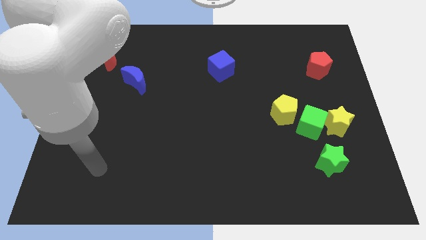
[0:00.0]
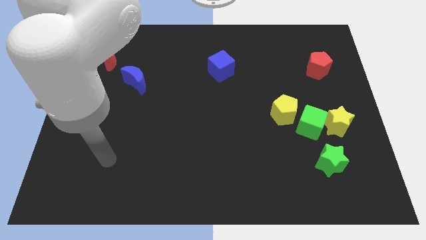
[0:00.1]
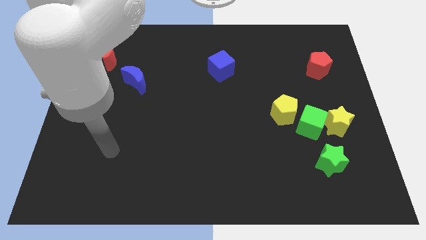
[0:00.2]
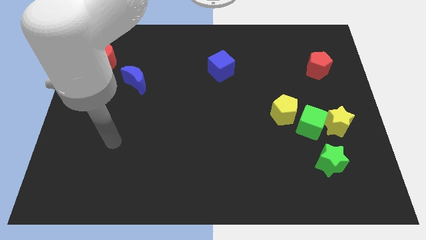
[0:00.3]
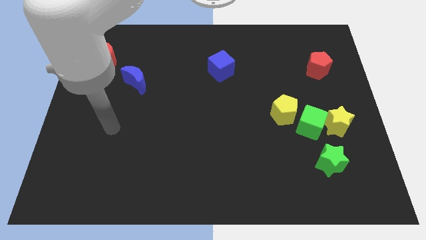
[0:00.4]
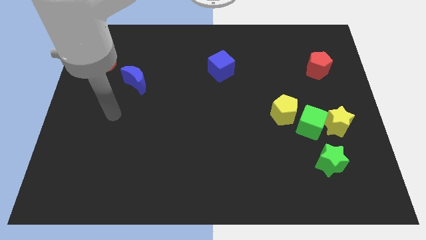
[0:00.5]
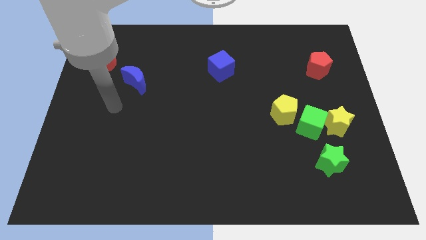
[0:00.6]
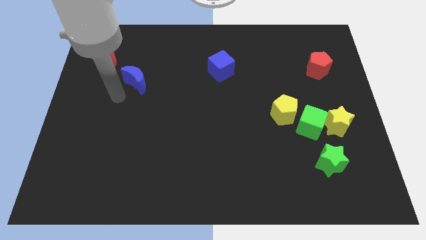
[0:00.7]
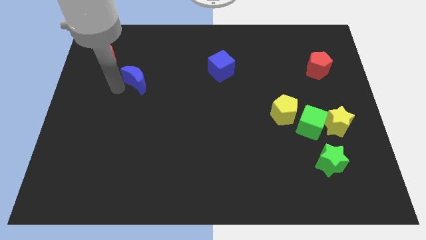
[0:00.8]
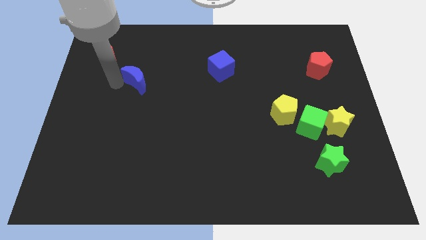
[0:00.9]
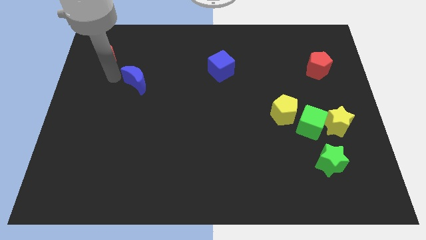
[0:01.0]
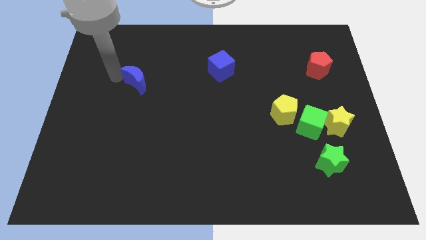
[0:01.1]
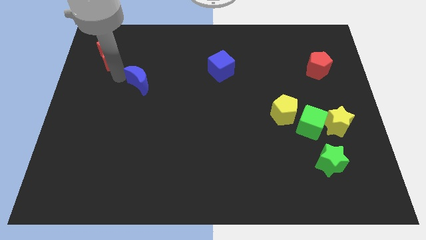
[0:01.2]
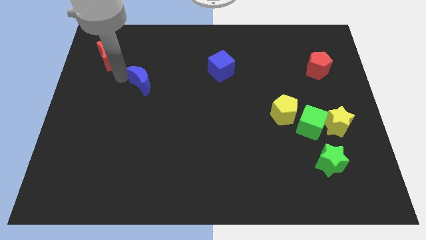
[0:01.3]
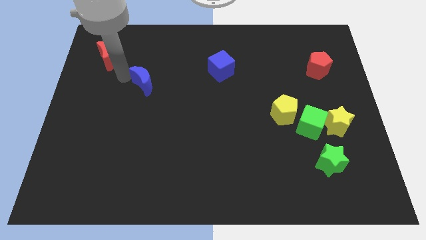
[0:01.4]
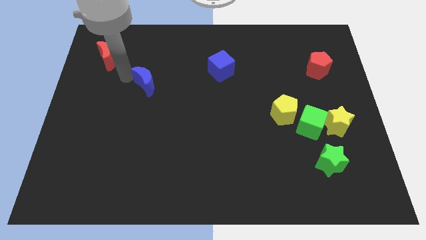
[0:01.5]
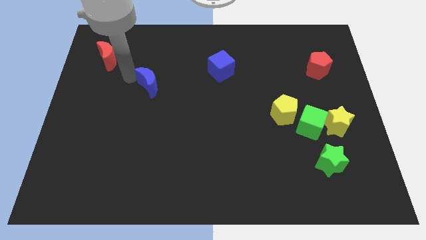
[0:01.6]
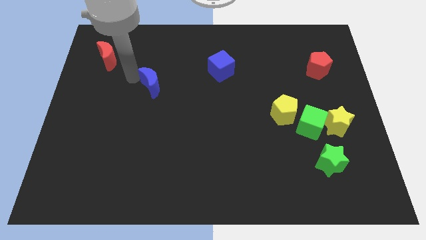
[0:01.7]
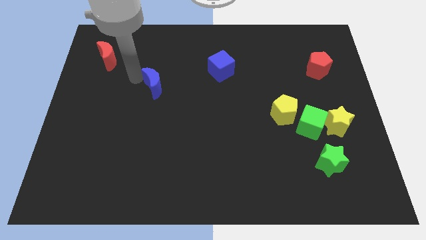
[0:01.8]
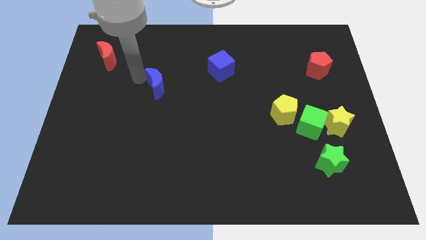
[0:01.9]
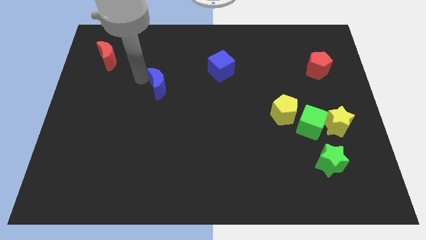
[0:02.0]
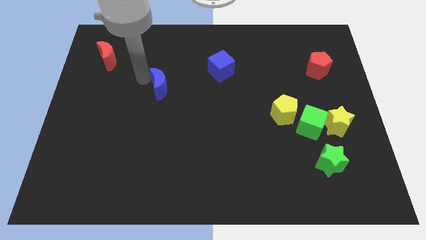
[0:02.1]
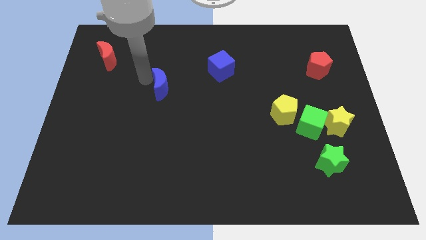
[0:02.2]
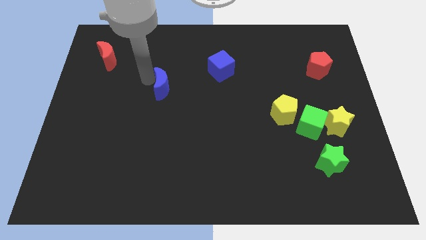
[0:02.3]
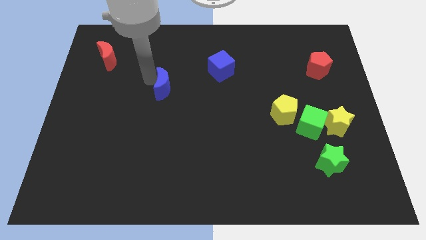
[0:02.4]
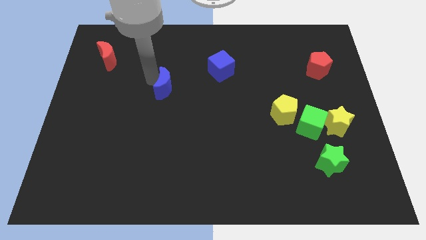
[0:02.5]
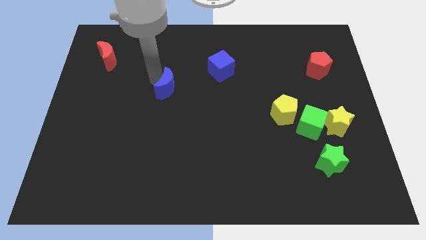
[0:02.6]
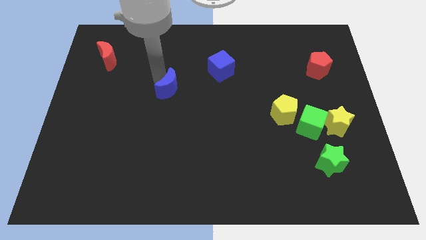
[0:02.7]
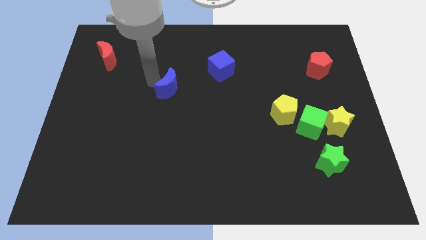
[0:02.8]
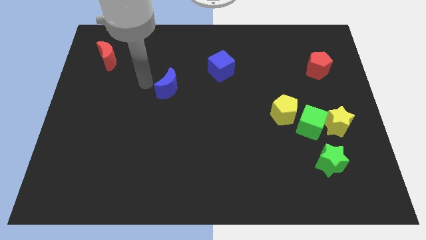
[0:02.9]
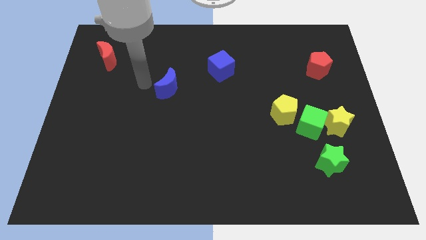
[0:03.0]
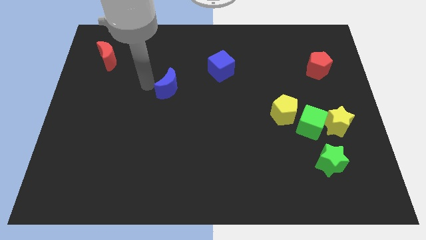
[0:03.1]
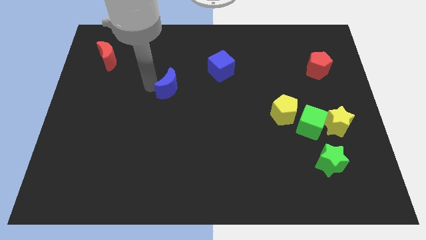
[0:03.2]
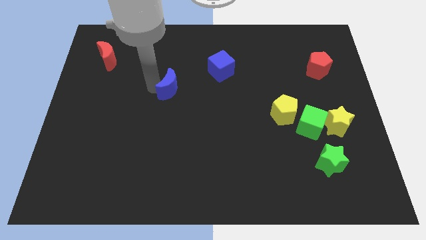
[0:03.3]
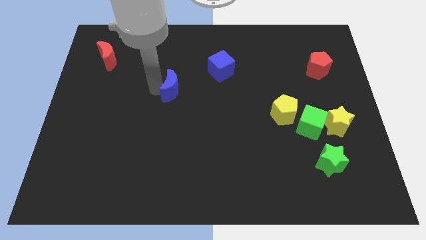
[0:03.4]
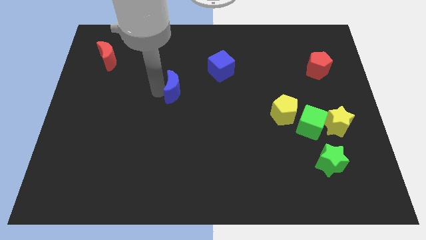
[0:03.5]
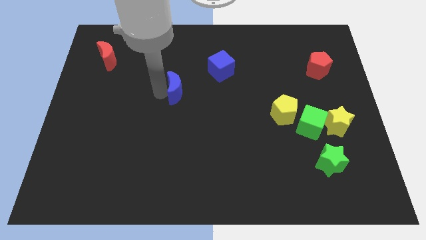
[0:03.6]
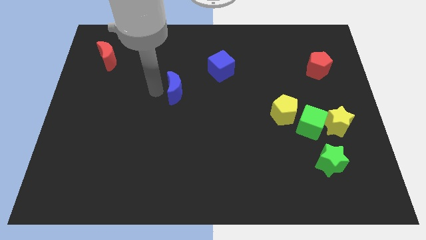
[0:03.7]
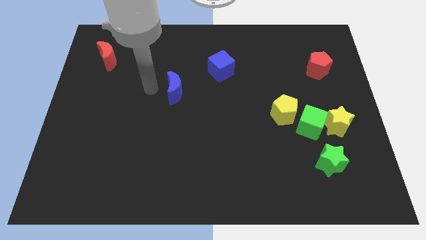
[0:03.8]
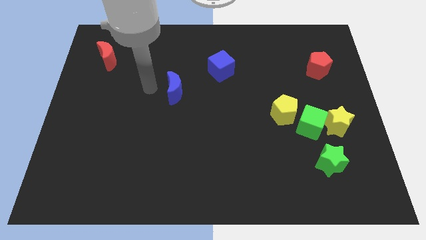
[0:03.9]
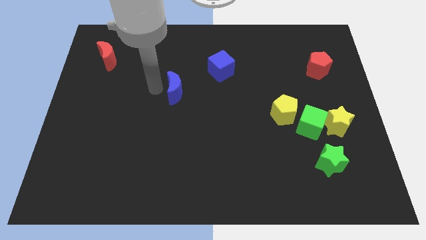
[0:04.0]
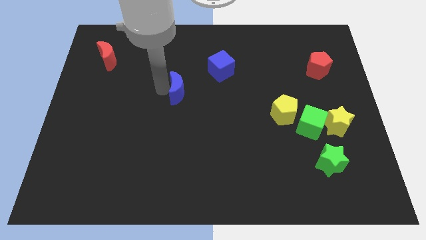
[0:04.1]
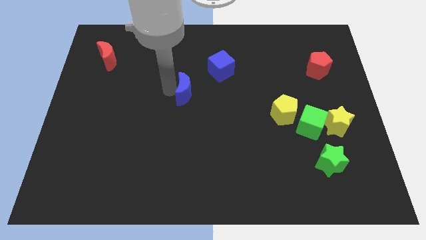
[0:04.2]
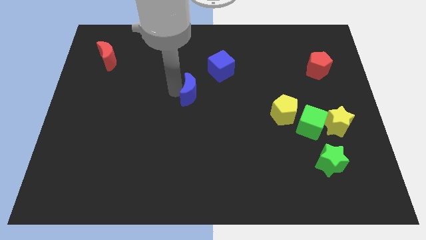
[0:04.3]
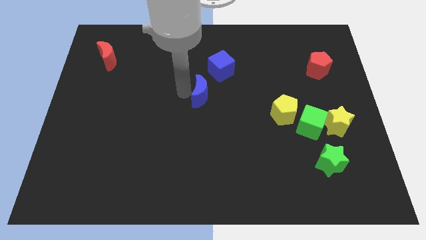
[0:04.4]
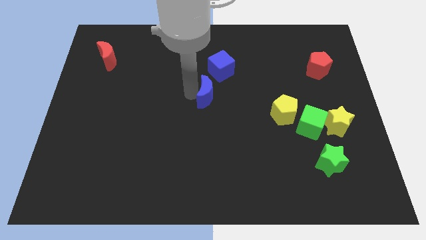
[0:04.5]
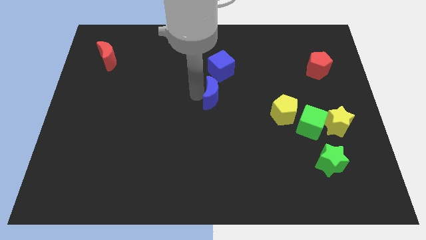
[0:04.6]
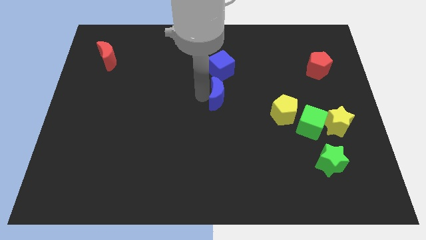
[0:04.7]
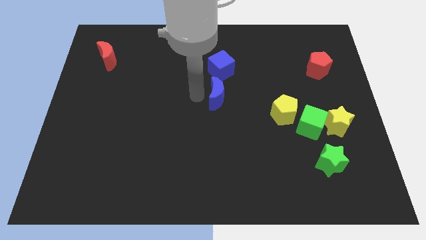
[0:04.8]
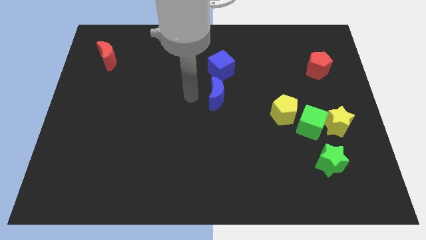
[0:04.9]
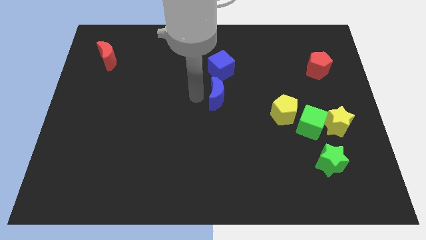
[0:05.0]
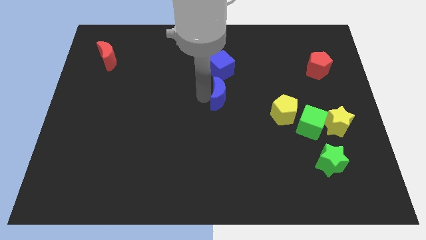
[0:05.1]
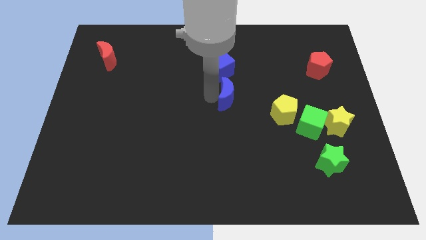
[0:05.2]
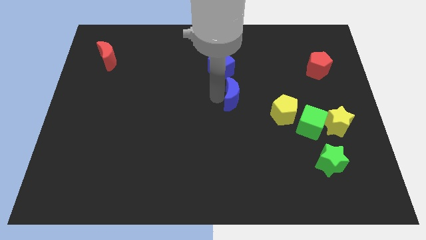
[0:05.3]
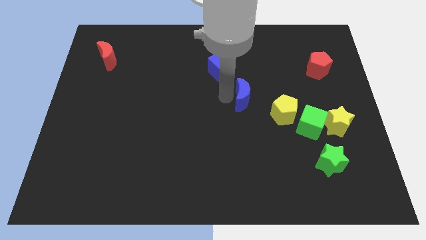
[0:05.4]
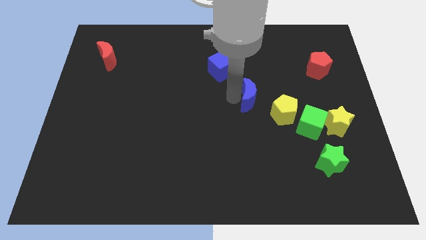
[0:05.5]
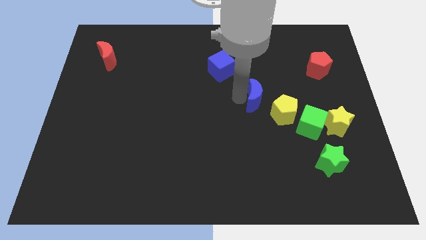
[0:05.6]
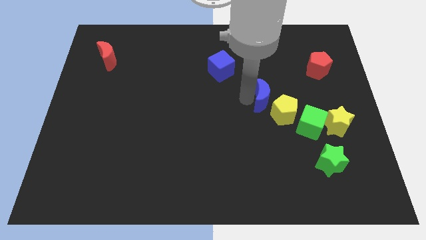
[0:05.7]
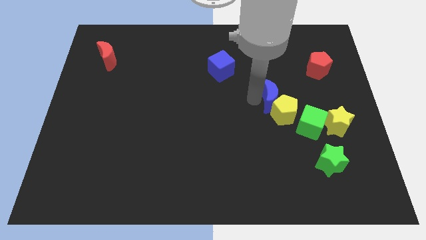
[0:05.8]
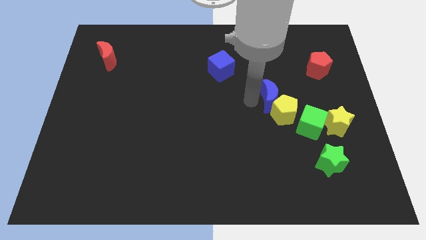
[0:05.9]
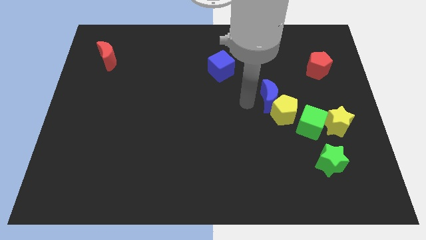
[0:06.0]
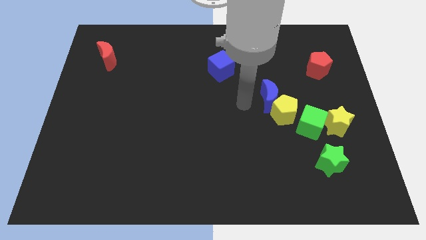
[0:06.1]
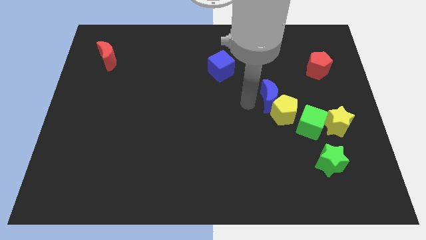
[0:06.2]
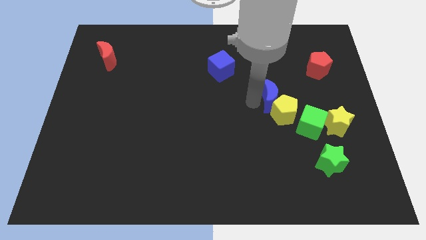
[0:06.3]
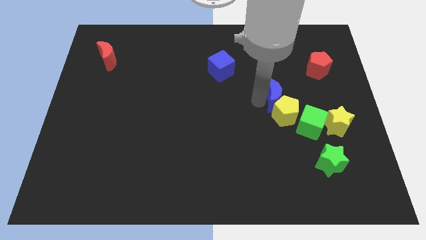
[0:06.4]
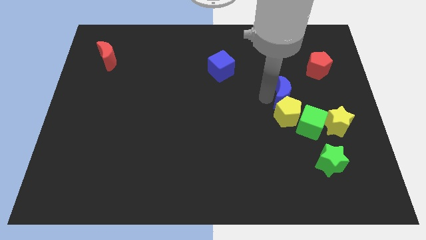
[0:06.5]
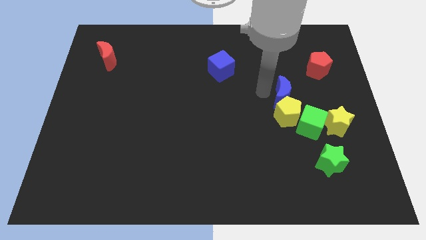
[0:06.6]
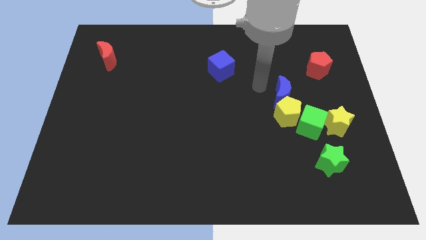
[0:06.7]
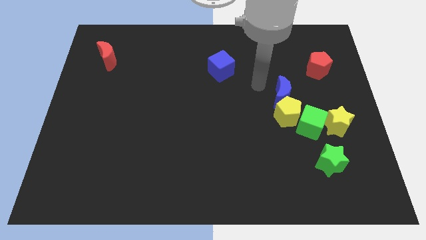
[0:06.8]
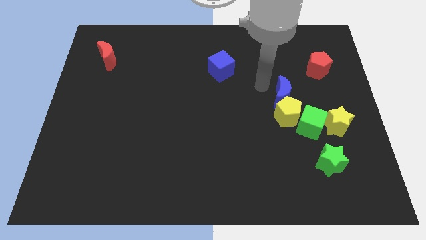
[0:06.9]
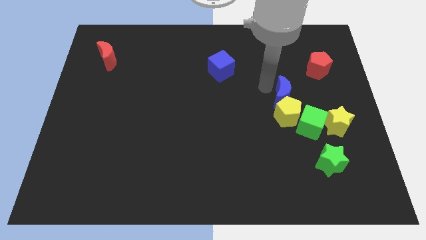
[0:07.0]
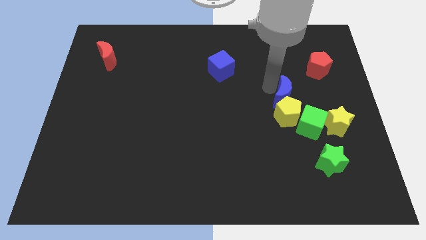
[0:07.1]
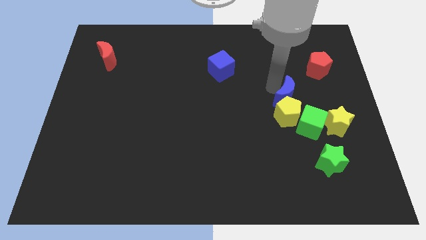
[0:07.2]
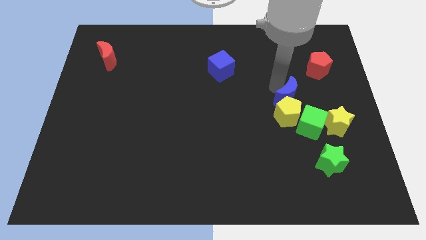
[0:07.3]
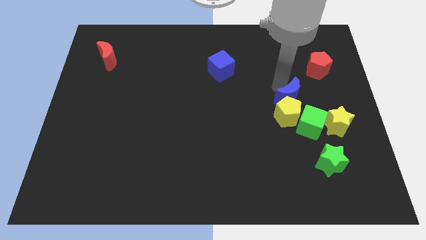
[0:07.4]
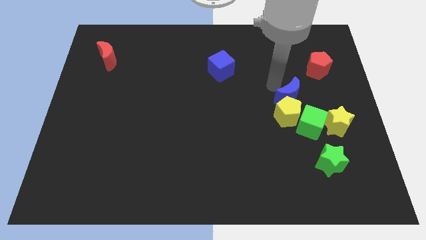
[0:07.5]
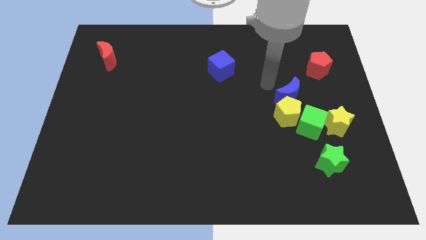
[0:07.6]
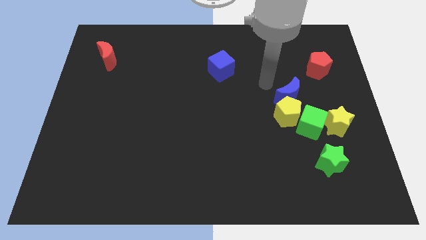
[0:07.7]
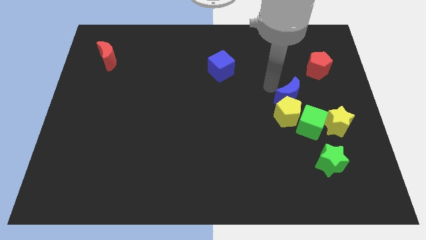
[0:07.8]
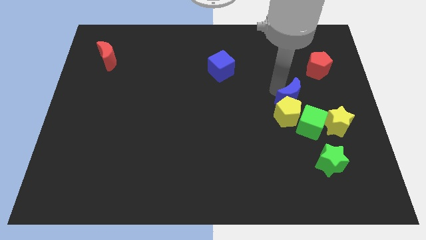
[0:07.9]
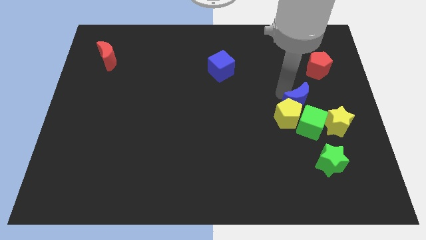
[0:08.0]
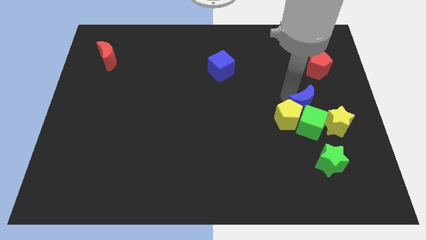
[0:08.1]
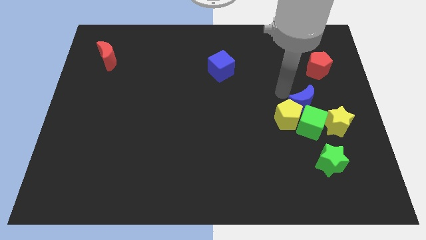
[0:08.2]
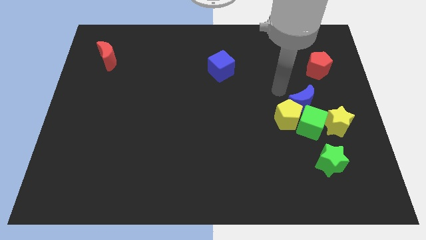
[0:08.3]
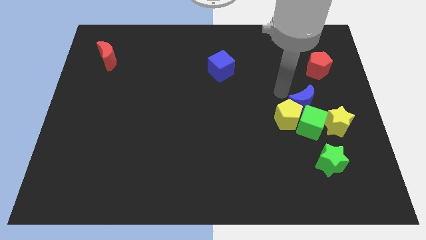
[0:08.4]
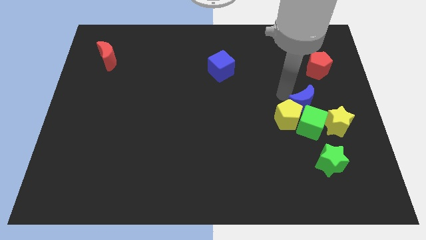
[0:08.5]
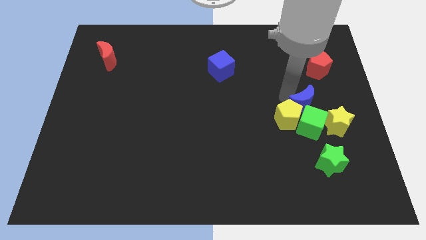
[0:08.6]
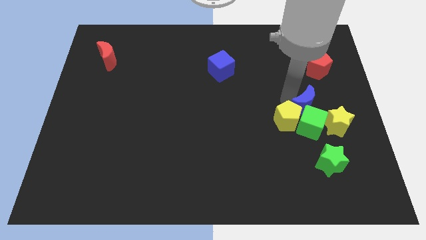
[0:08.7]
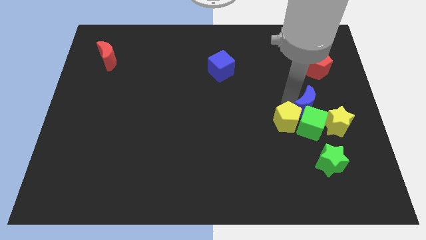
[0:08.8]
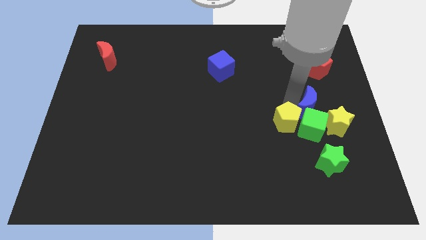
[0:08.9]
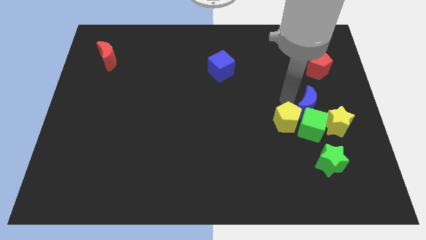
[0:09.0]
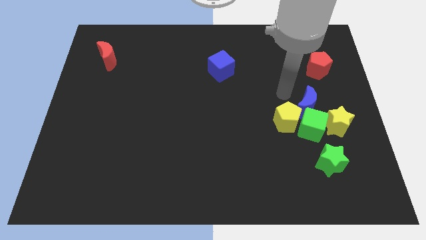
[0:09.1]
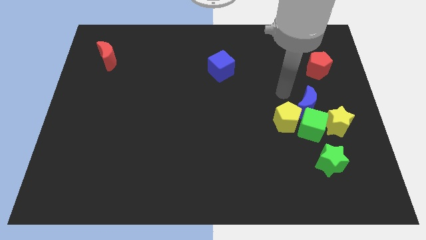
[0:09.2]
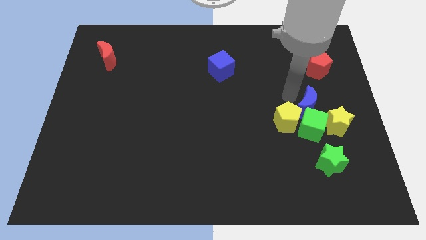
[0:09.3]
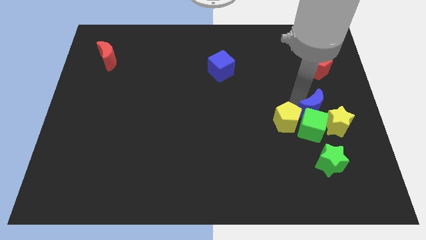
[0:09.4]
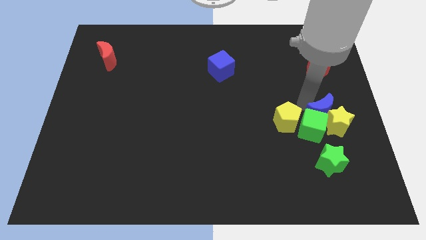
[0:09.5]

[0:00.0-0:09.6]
push the blue moon towards the yellow star
